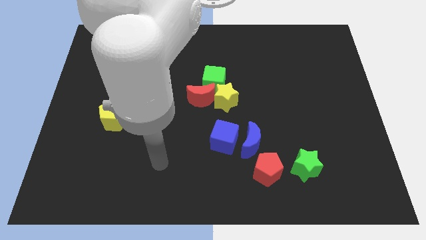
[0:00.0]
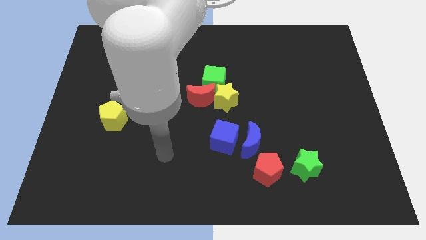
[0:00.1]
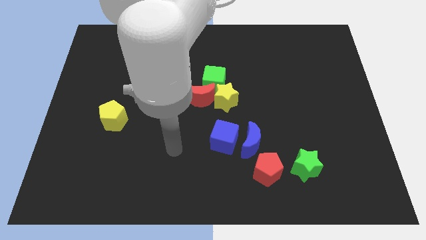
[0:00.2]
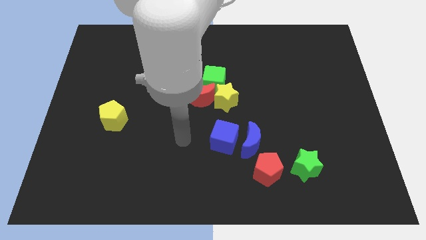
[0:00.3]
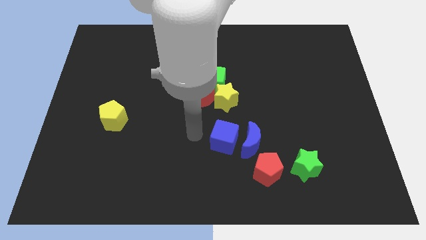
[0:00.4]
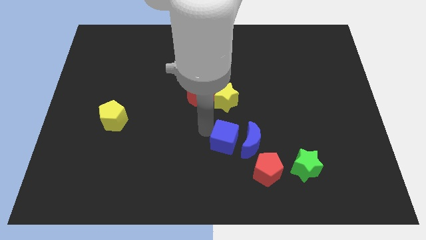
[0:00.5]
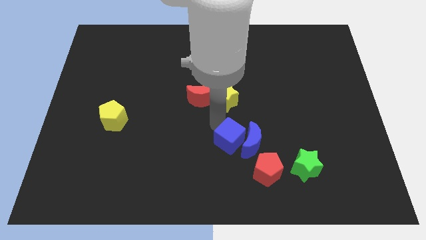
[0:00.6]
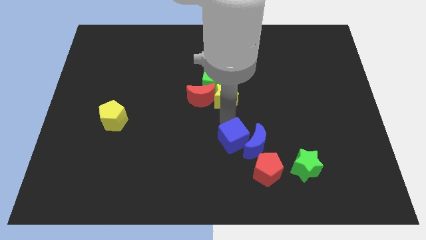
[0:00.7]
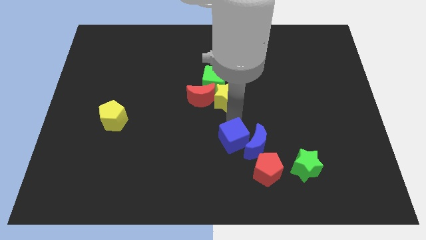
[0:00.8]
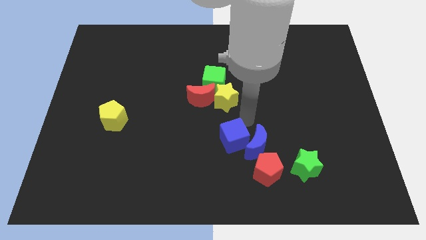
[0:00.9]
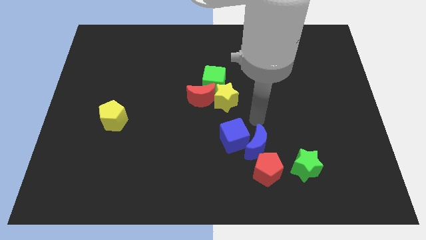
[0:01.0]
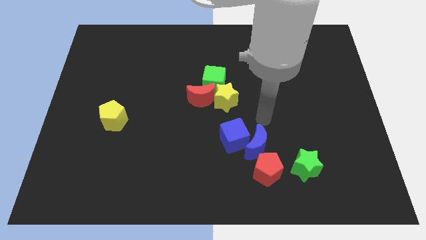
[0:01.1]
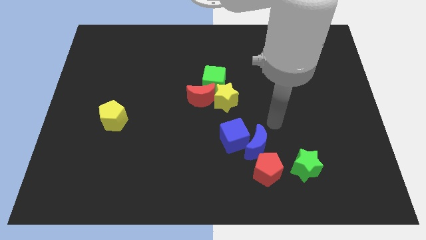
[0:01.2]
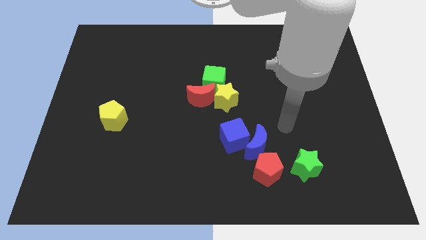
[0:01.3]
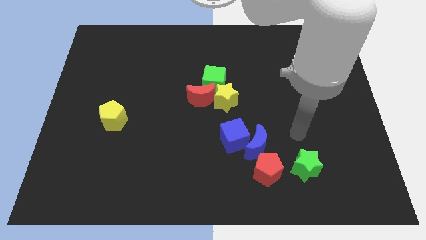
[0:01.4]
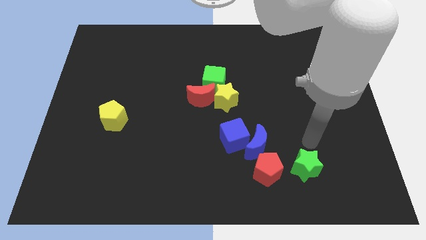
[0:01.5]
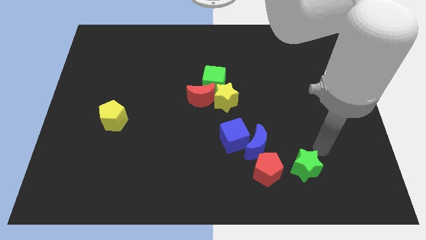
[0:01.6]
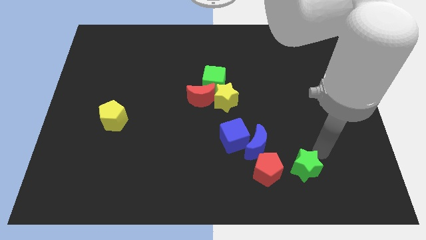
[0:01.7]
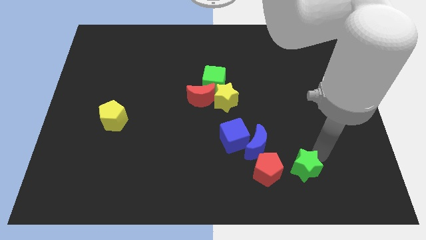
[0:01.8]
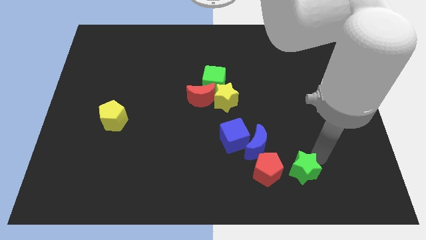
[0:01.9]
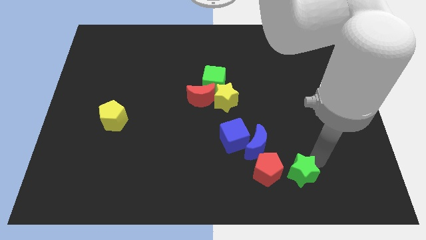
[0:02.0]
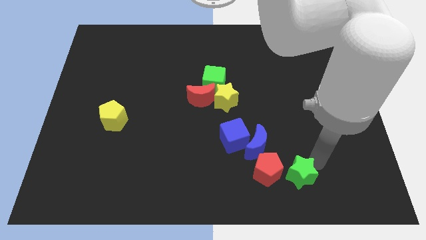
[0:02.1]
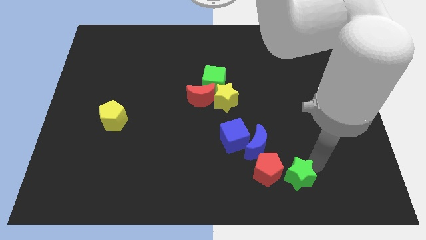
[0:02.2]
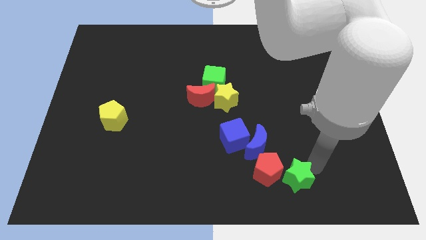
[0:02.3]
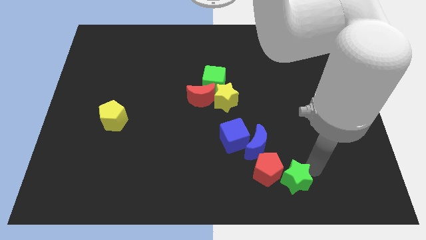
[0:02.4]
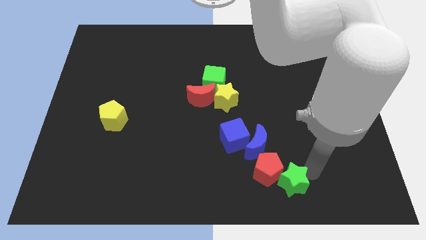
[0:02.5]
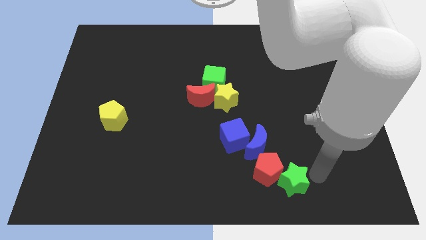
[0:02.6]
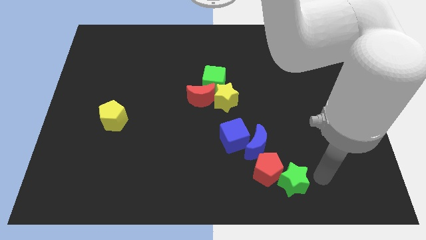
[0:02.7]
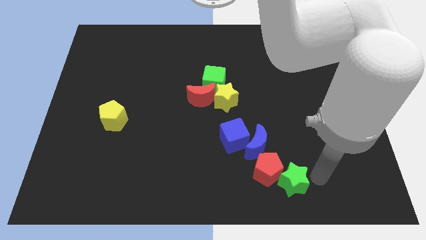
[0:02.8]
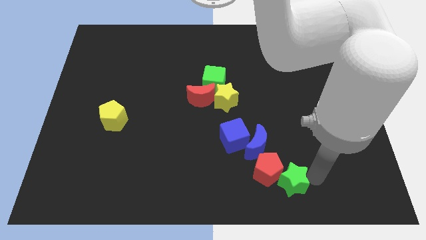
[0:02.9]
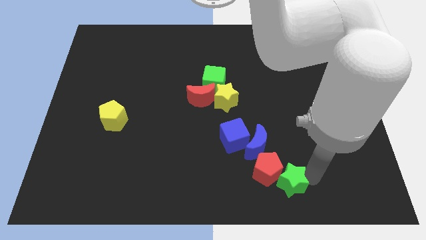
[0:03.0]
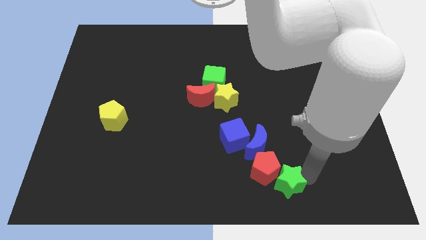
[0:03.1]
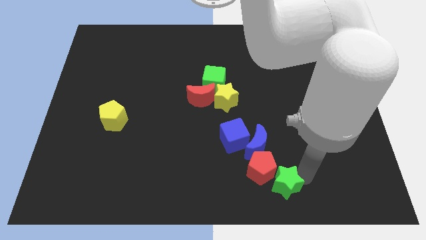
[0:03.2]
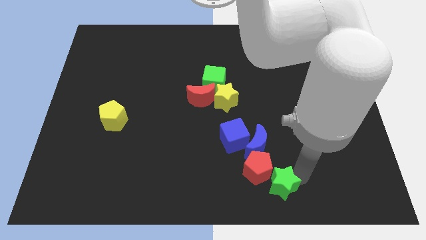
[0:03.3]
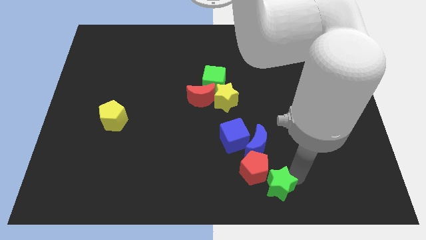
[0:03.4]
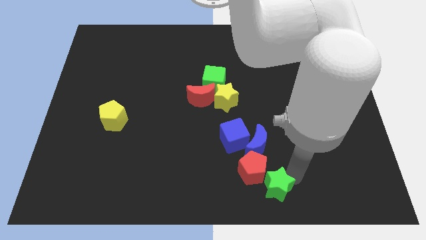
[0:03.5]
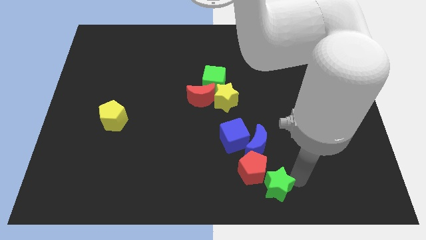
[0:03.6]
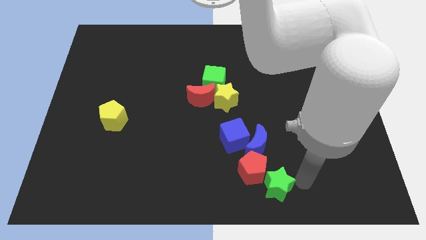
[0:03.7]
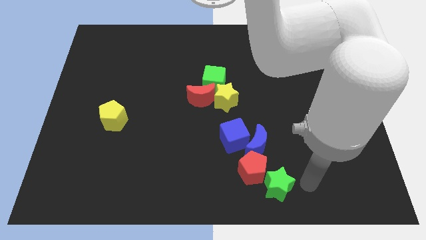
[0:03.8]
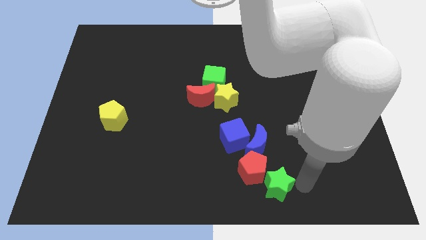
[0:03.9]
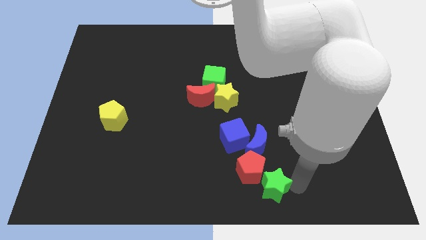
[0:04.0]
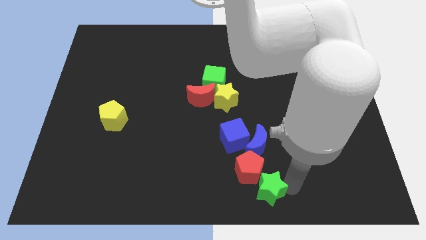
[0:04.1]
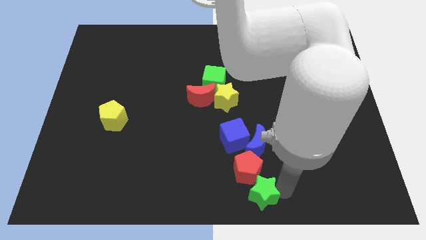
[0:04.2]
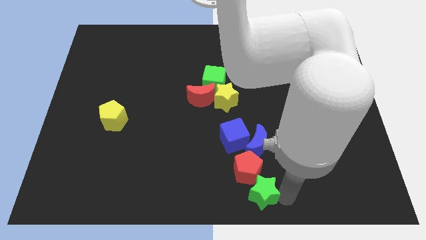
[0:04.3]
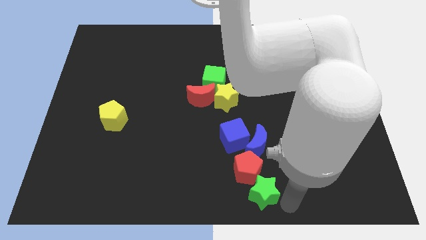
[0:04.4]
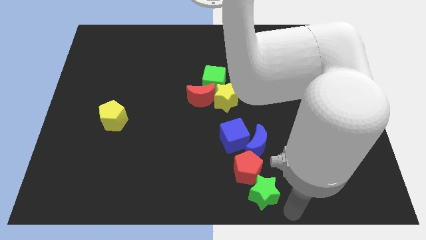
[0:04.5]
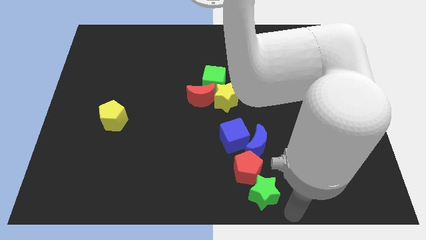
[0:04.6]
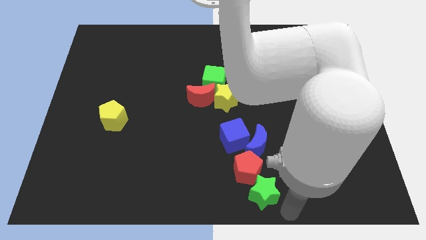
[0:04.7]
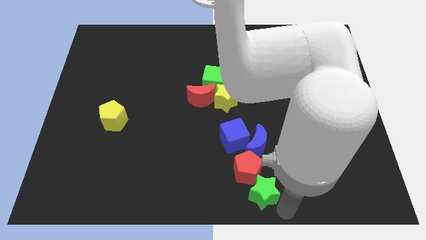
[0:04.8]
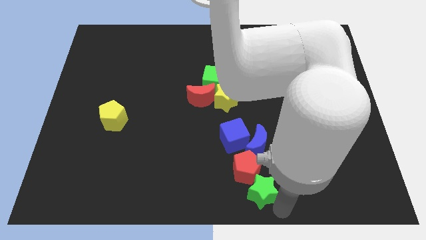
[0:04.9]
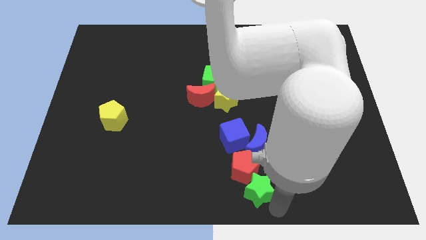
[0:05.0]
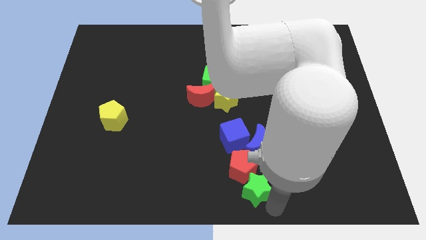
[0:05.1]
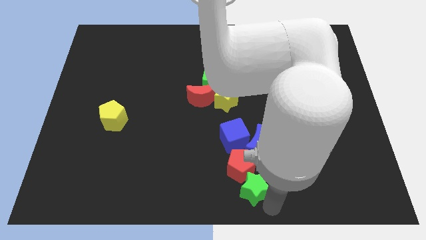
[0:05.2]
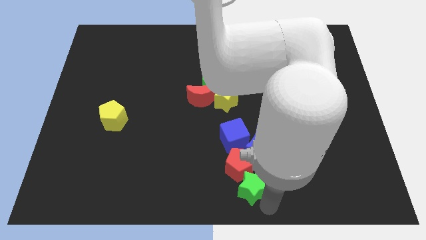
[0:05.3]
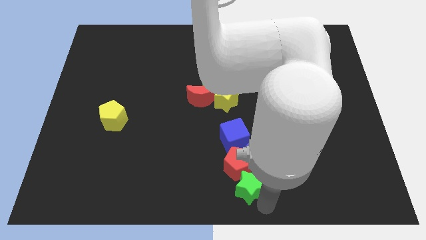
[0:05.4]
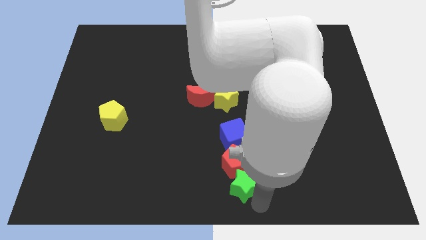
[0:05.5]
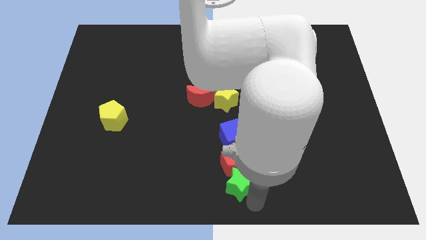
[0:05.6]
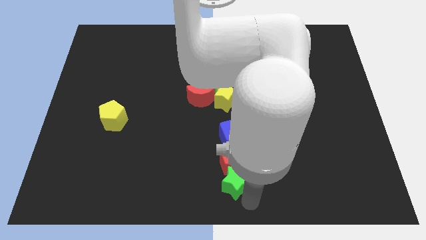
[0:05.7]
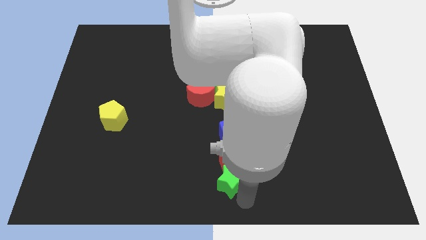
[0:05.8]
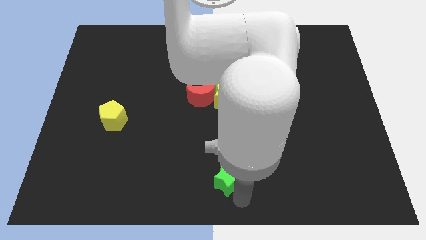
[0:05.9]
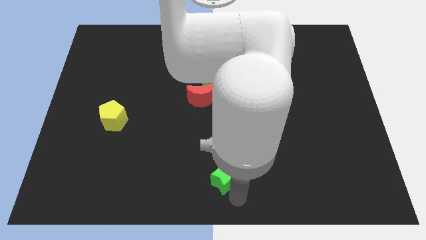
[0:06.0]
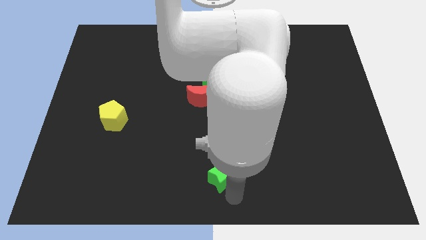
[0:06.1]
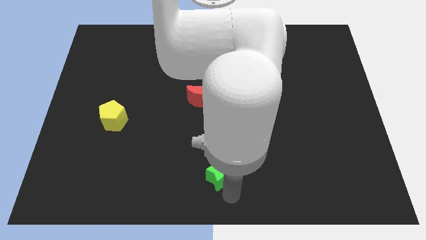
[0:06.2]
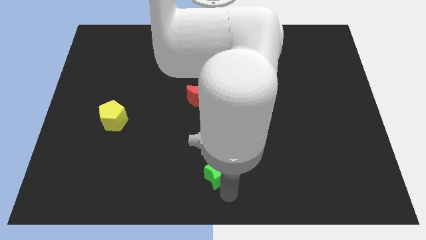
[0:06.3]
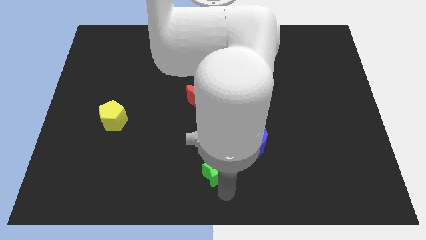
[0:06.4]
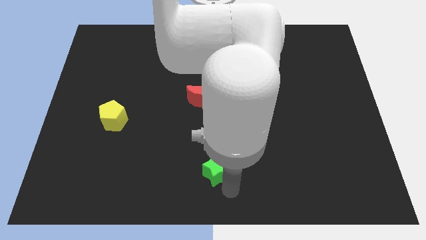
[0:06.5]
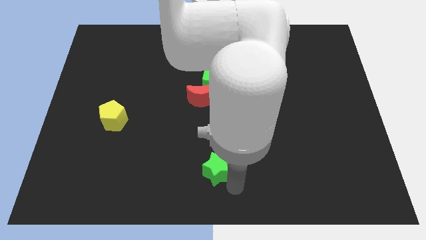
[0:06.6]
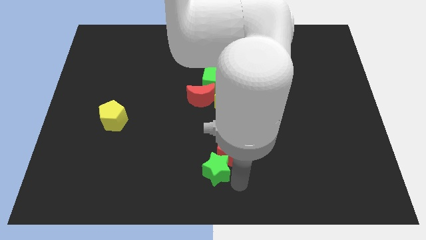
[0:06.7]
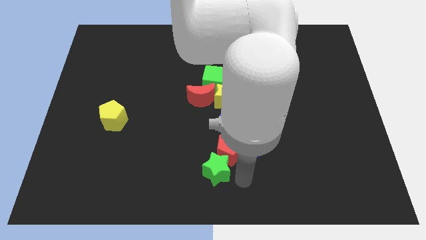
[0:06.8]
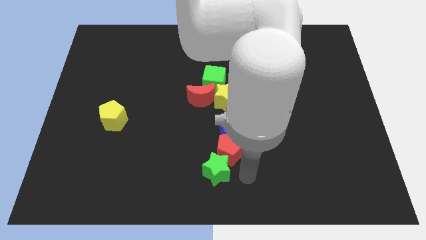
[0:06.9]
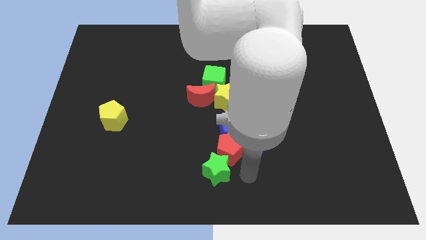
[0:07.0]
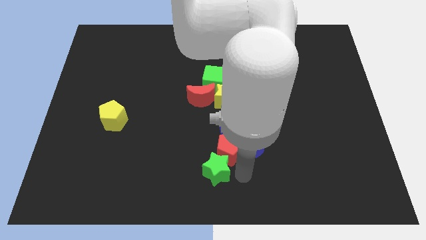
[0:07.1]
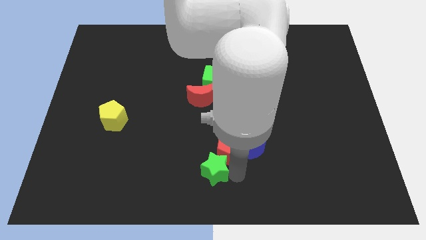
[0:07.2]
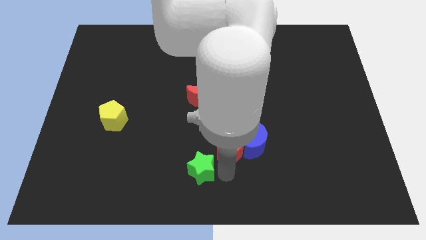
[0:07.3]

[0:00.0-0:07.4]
push the green star to the left
